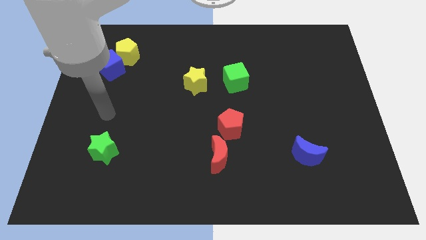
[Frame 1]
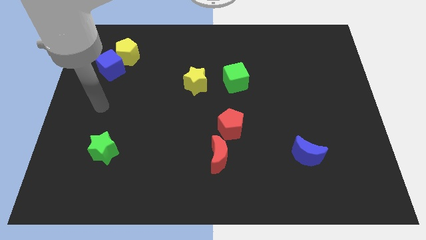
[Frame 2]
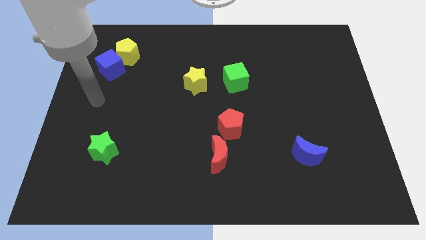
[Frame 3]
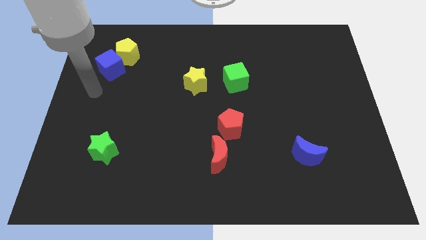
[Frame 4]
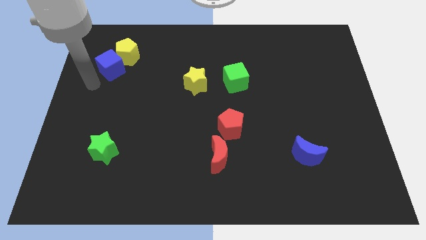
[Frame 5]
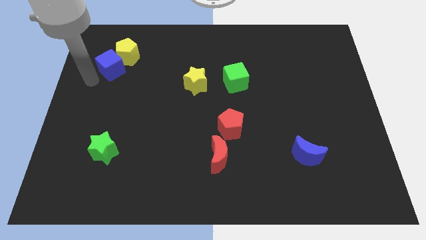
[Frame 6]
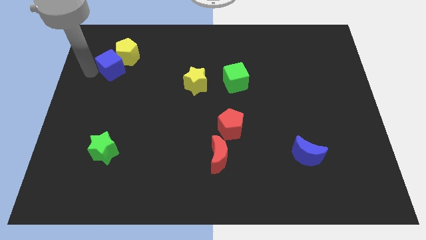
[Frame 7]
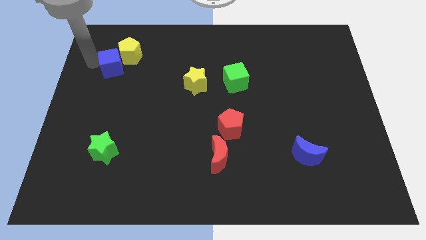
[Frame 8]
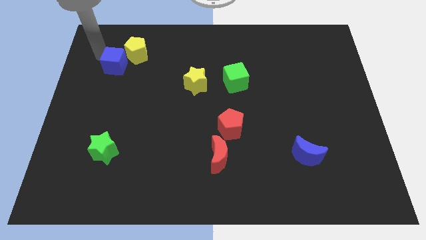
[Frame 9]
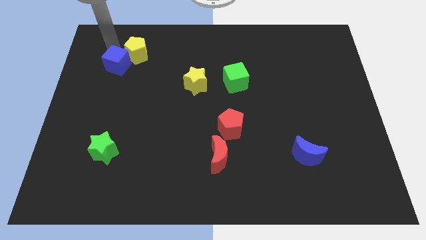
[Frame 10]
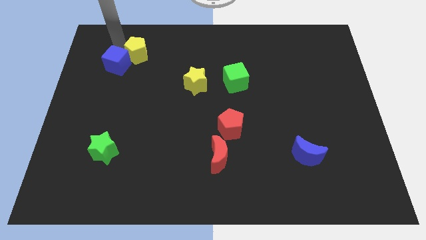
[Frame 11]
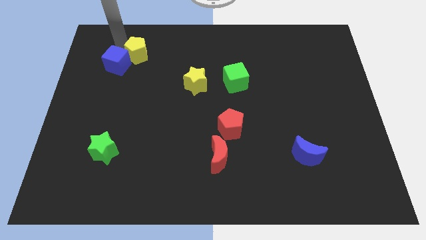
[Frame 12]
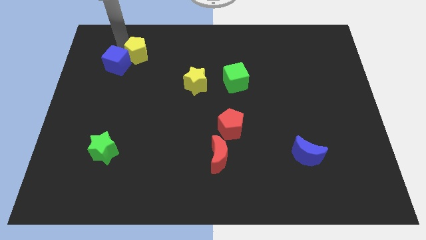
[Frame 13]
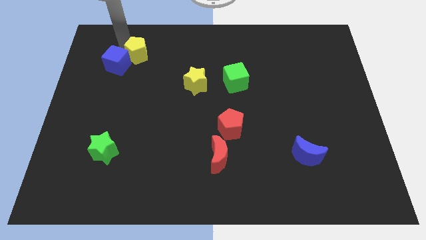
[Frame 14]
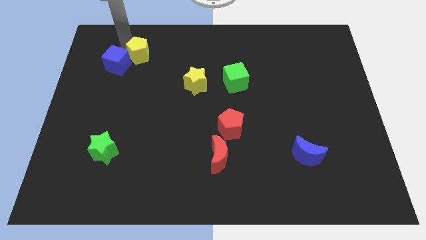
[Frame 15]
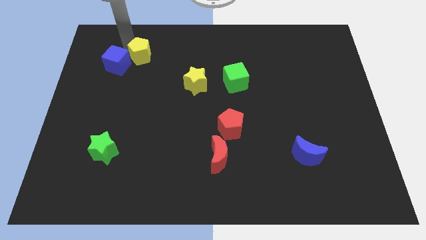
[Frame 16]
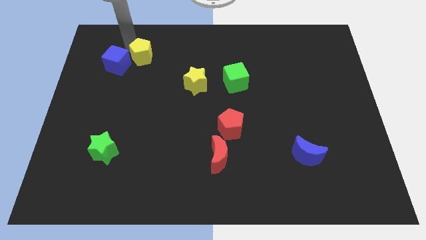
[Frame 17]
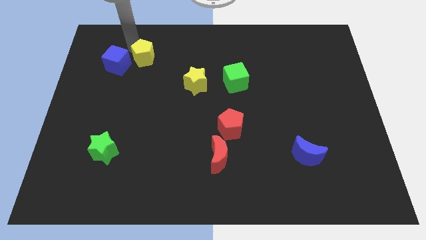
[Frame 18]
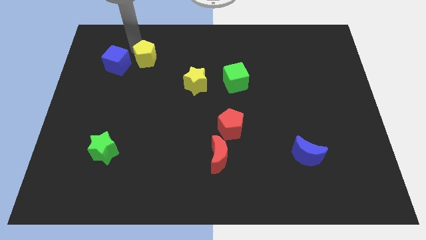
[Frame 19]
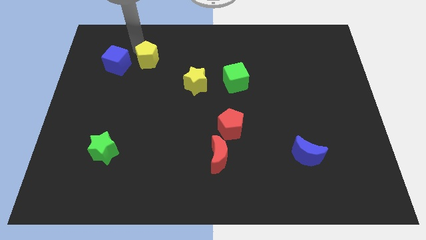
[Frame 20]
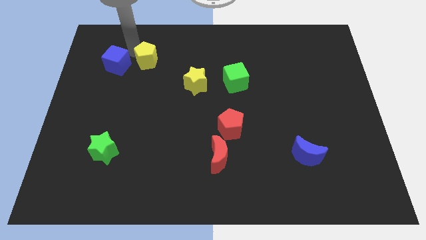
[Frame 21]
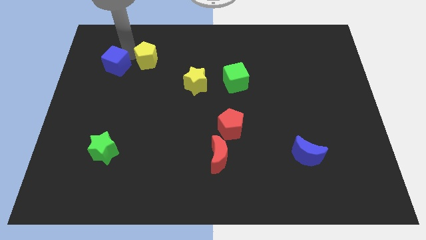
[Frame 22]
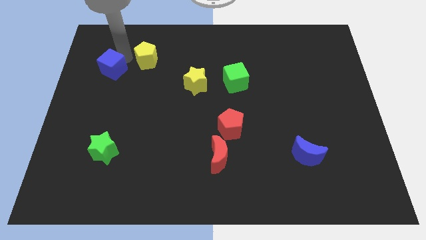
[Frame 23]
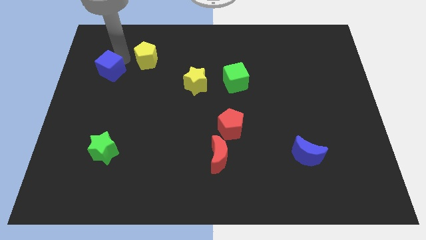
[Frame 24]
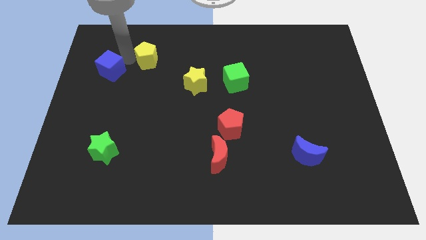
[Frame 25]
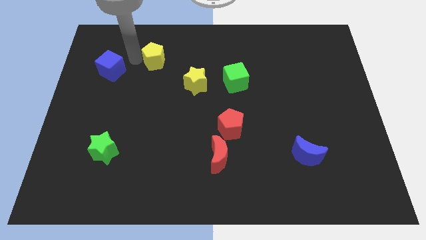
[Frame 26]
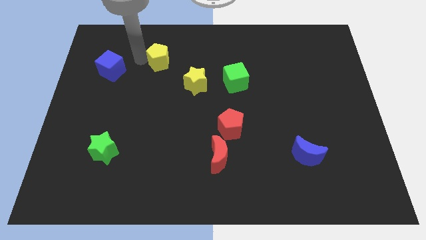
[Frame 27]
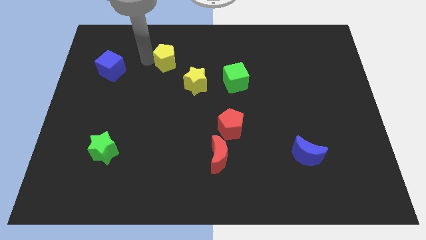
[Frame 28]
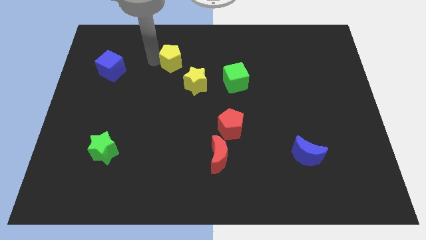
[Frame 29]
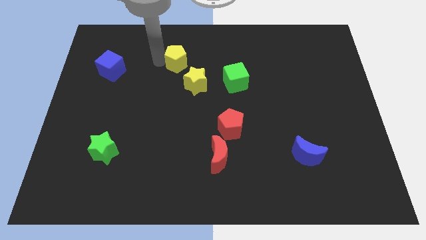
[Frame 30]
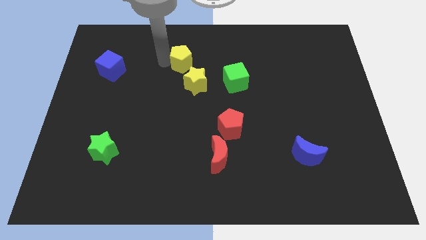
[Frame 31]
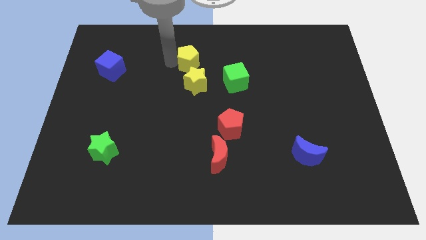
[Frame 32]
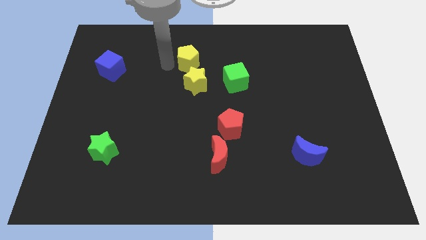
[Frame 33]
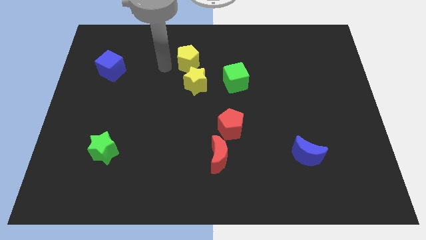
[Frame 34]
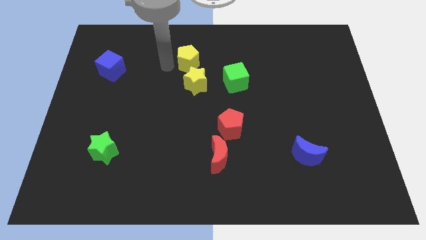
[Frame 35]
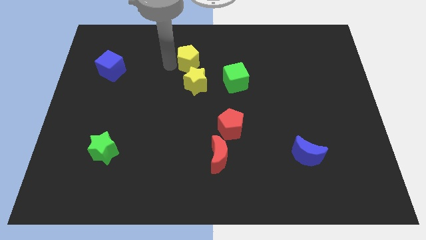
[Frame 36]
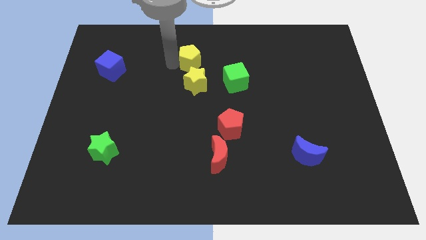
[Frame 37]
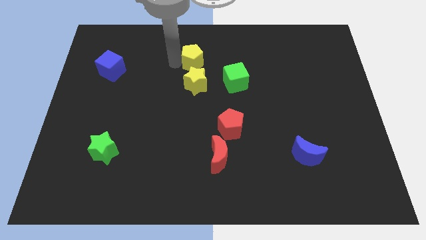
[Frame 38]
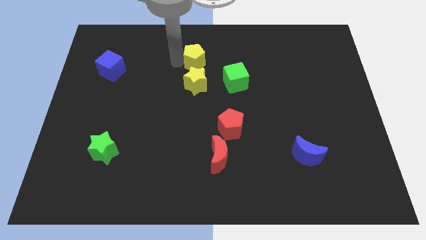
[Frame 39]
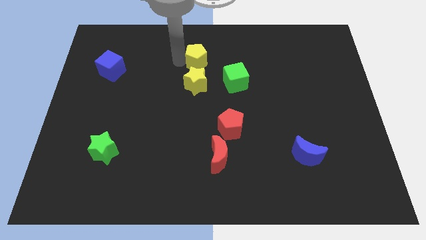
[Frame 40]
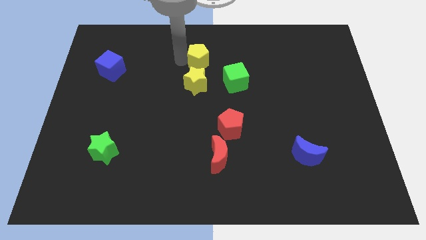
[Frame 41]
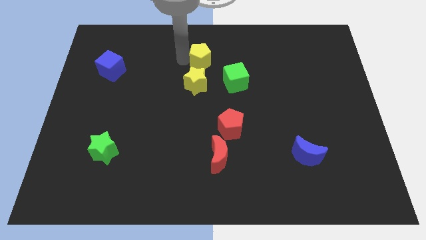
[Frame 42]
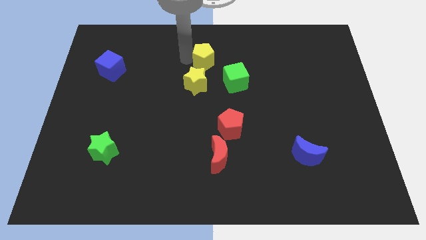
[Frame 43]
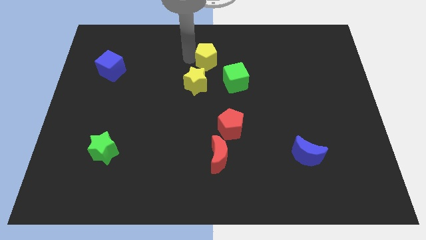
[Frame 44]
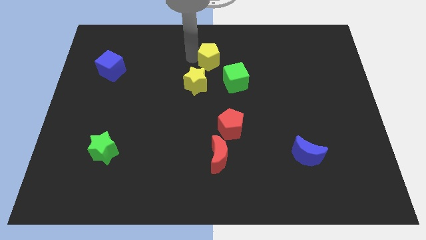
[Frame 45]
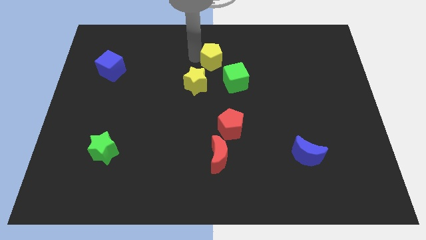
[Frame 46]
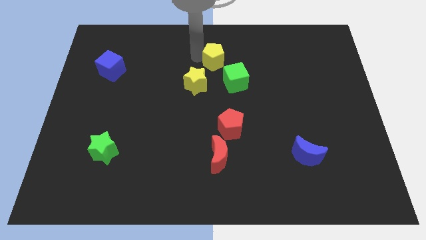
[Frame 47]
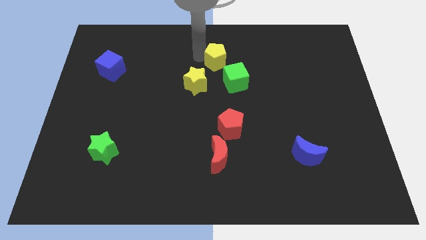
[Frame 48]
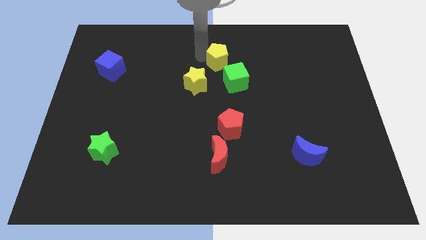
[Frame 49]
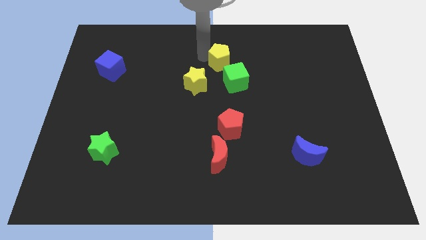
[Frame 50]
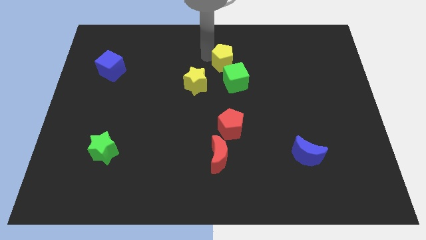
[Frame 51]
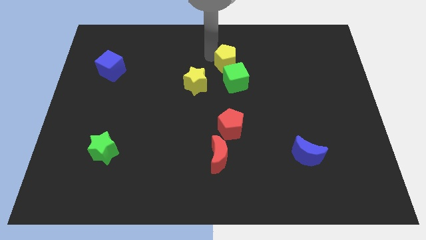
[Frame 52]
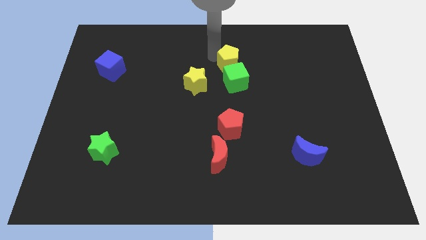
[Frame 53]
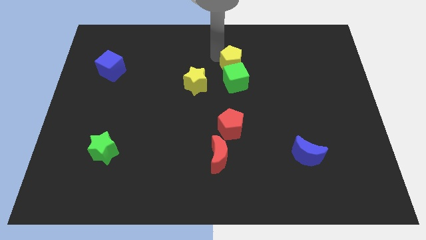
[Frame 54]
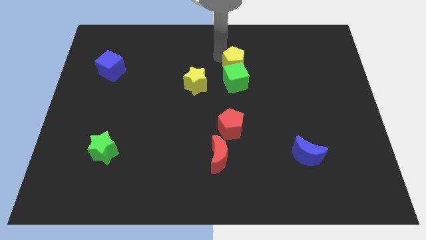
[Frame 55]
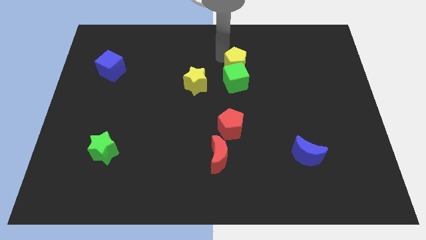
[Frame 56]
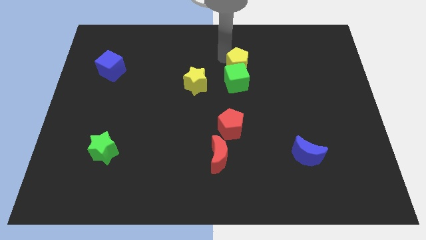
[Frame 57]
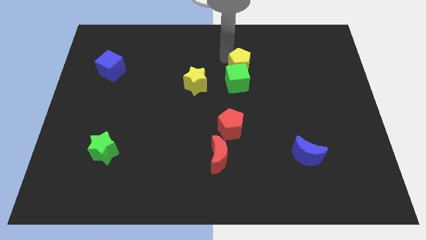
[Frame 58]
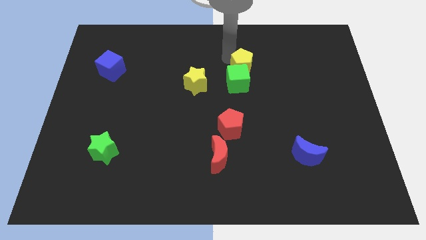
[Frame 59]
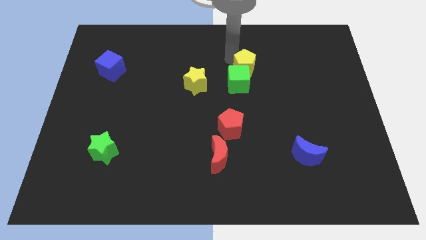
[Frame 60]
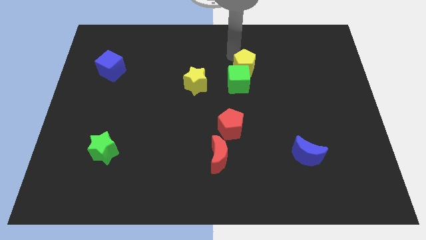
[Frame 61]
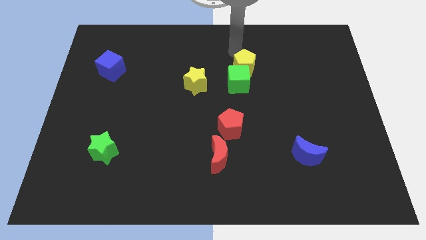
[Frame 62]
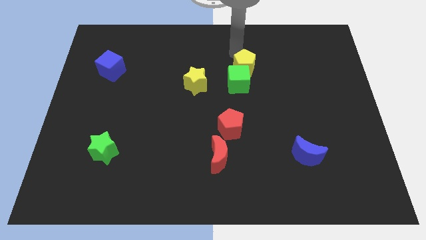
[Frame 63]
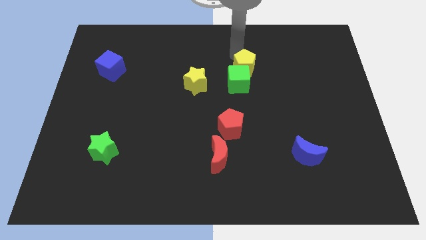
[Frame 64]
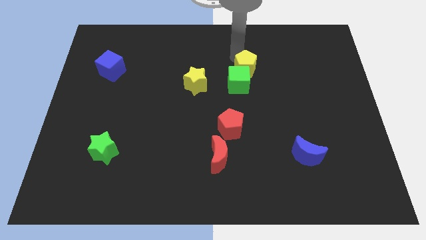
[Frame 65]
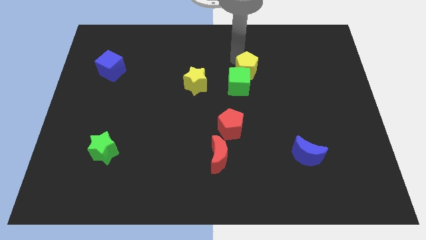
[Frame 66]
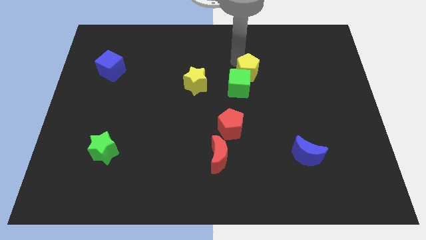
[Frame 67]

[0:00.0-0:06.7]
push the yellow pentagon to the right side of the yellow star

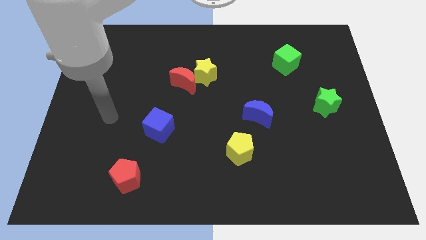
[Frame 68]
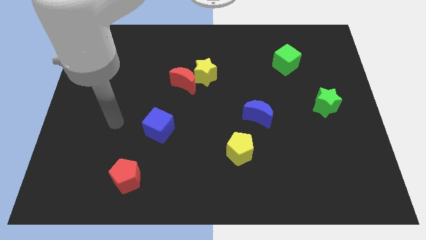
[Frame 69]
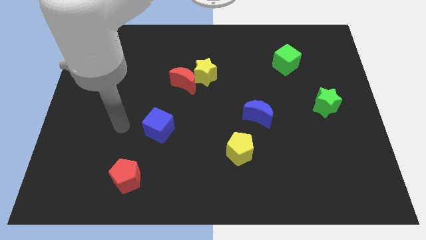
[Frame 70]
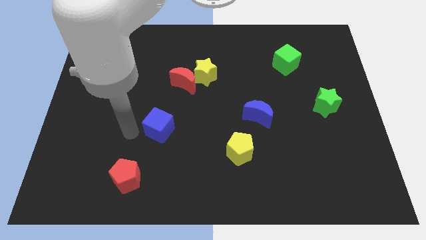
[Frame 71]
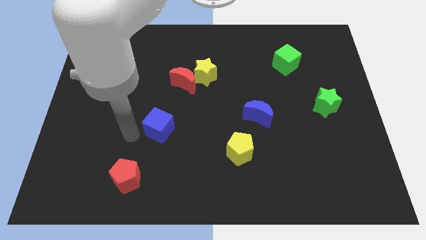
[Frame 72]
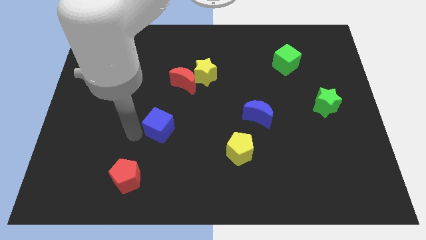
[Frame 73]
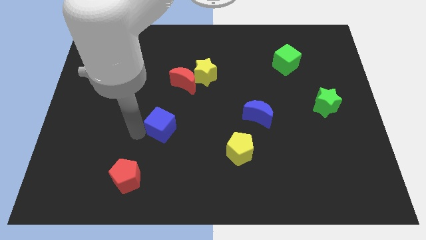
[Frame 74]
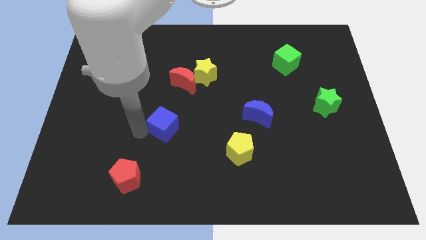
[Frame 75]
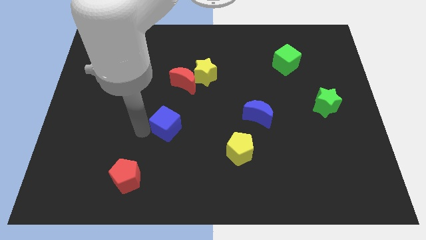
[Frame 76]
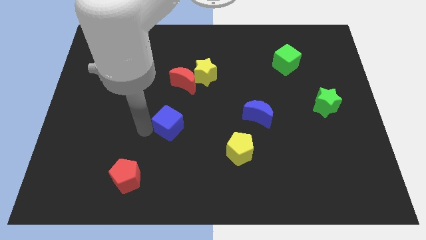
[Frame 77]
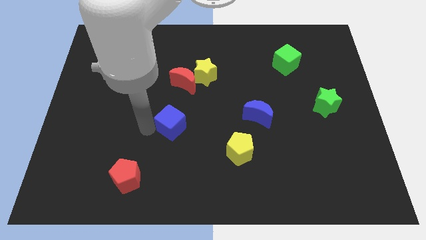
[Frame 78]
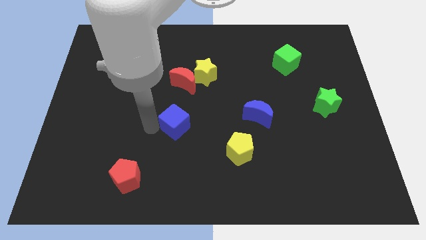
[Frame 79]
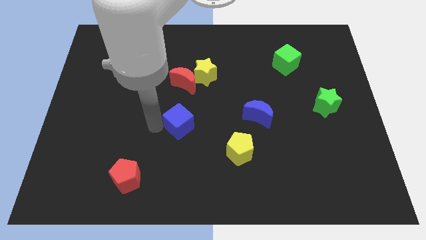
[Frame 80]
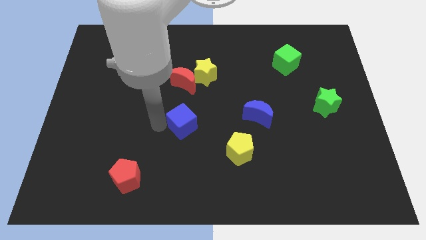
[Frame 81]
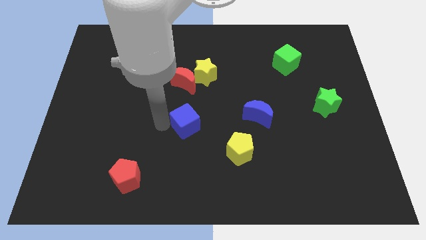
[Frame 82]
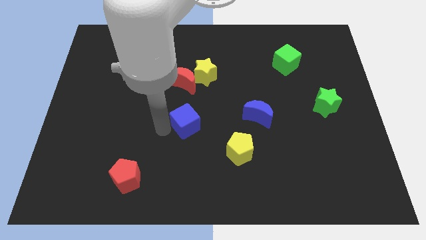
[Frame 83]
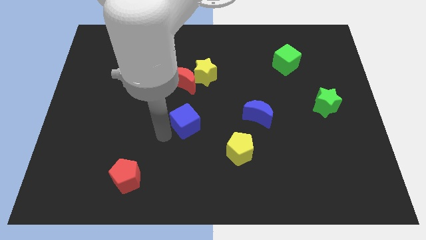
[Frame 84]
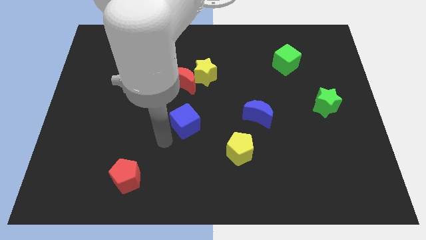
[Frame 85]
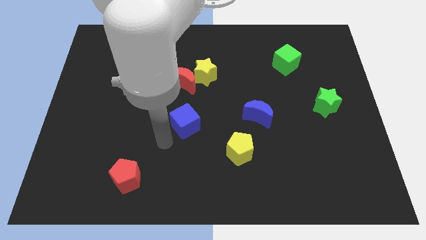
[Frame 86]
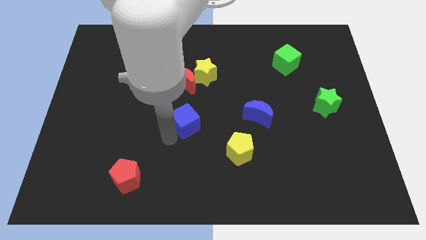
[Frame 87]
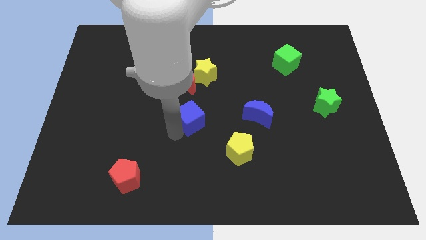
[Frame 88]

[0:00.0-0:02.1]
slide the blue cube to the bottom of the yellow star

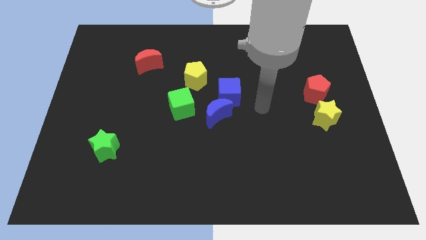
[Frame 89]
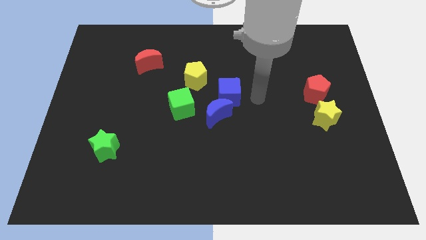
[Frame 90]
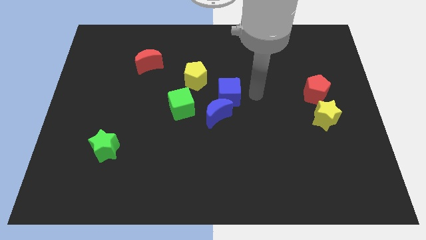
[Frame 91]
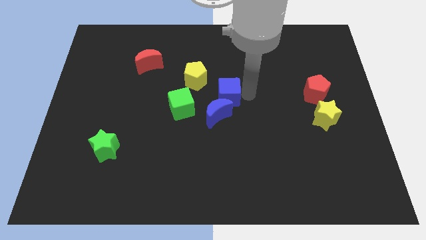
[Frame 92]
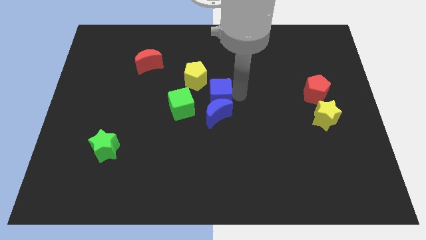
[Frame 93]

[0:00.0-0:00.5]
move the blue cube to the top left side of the blue moon
